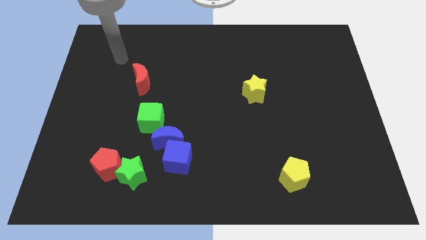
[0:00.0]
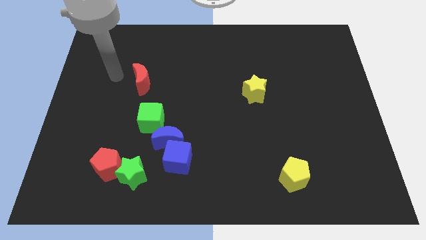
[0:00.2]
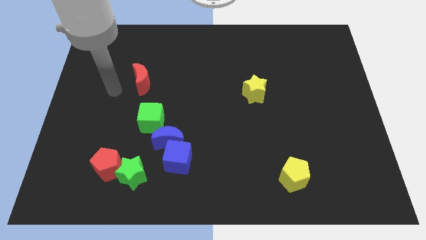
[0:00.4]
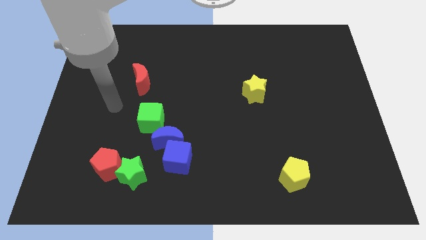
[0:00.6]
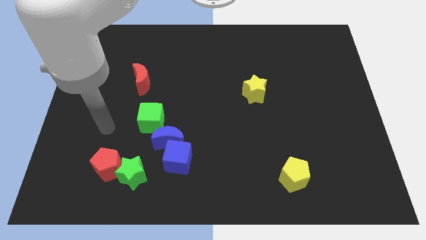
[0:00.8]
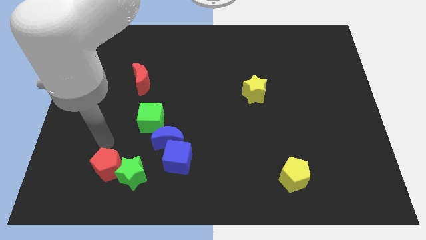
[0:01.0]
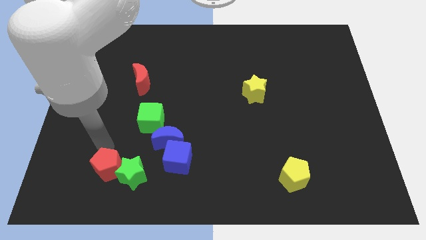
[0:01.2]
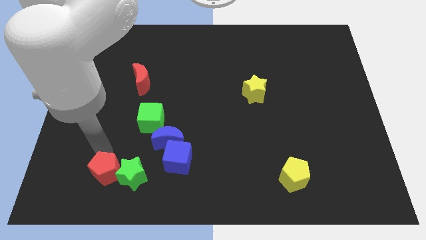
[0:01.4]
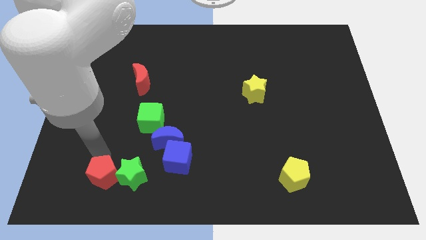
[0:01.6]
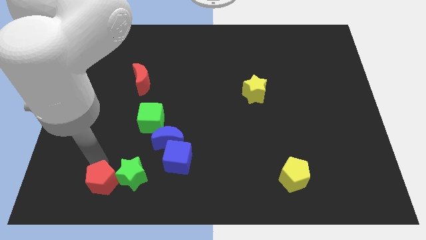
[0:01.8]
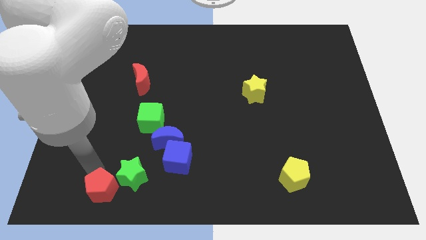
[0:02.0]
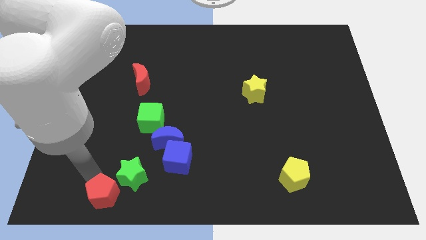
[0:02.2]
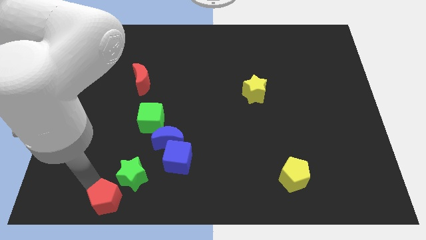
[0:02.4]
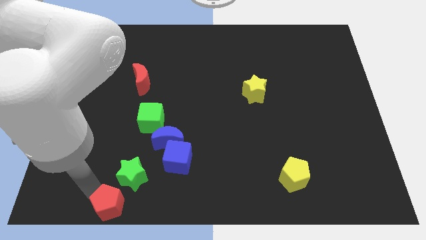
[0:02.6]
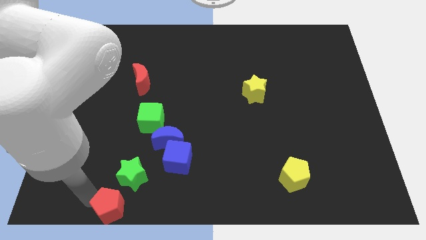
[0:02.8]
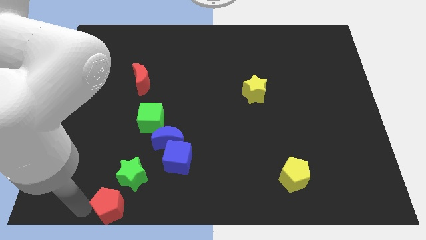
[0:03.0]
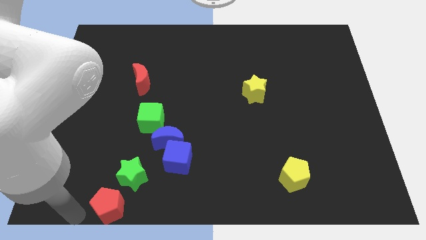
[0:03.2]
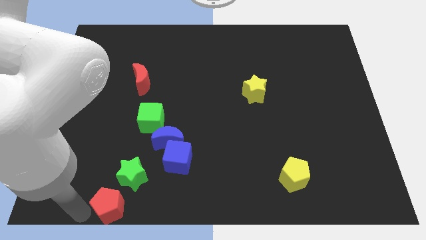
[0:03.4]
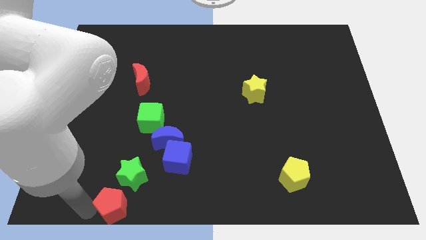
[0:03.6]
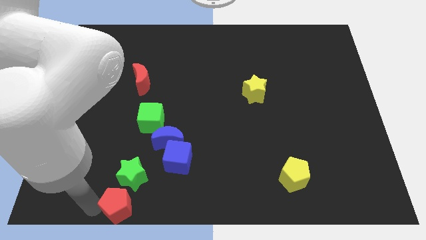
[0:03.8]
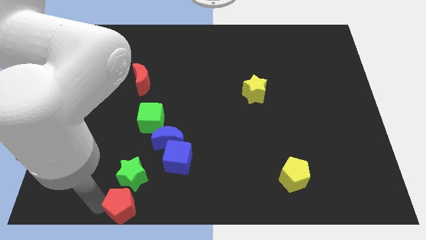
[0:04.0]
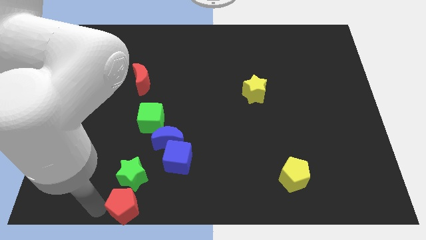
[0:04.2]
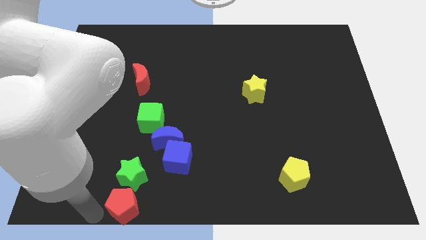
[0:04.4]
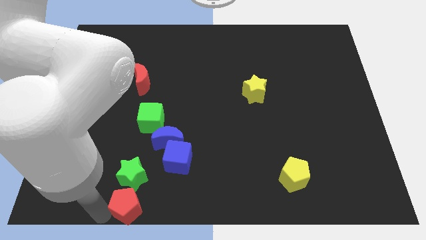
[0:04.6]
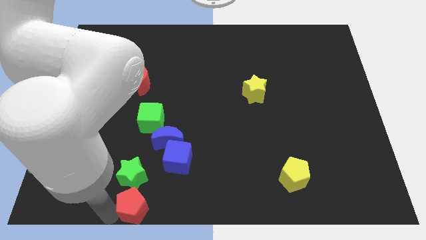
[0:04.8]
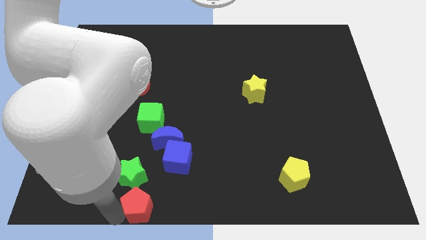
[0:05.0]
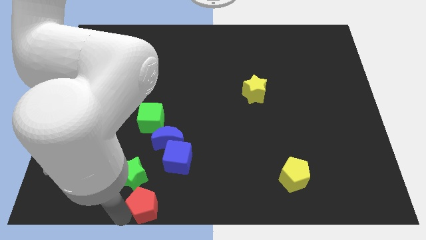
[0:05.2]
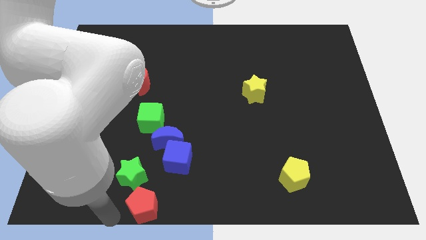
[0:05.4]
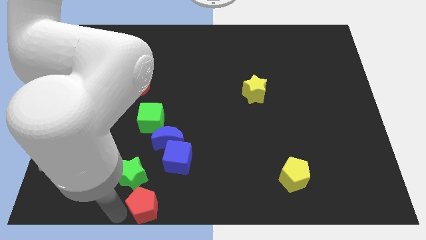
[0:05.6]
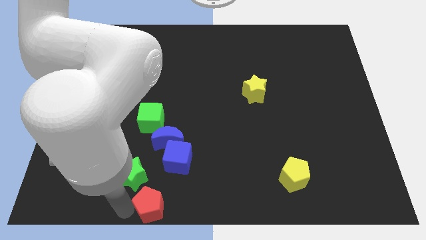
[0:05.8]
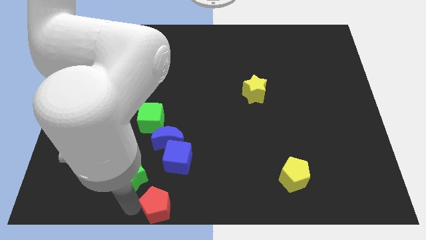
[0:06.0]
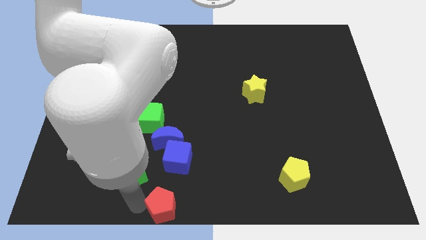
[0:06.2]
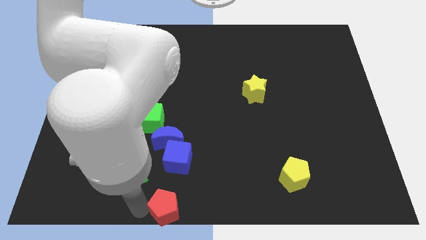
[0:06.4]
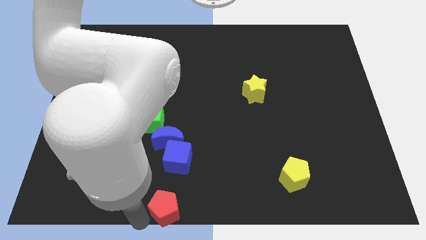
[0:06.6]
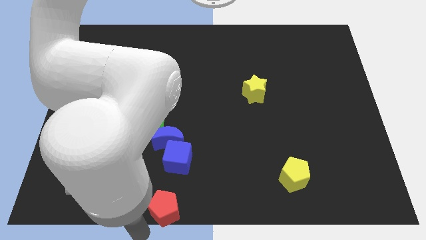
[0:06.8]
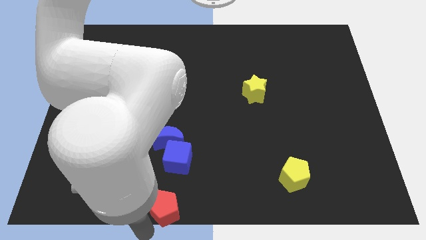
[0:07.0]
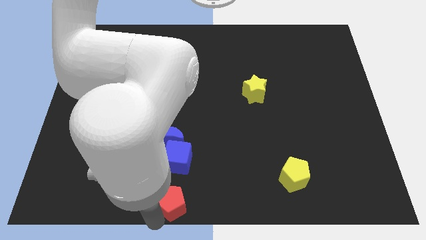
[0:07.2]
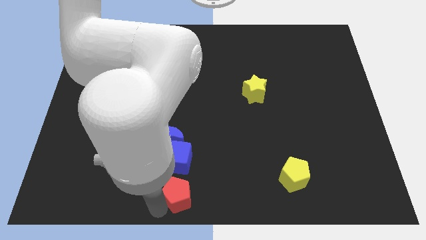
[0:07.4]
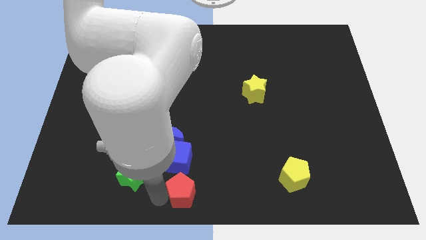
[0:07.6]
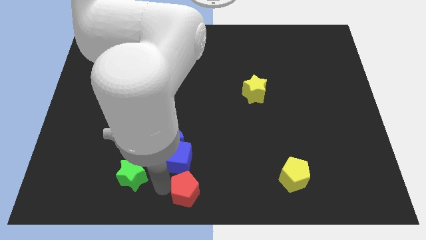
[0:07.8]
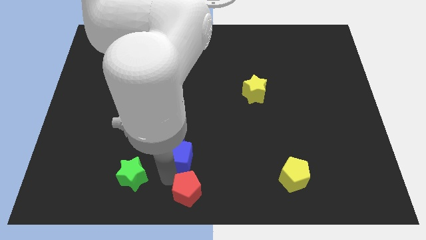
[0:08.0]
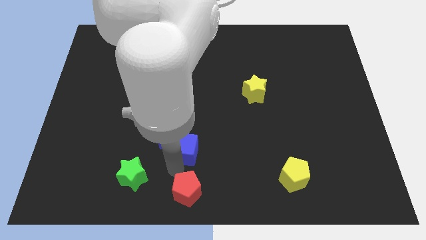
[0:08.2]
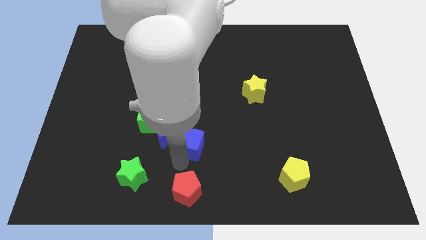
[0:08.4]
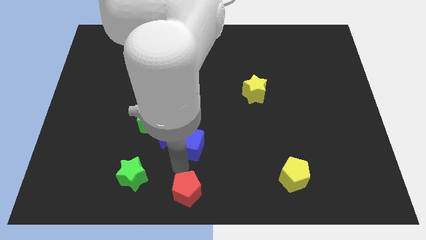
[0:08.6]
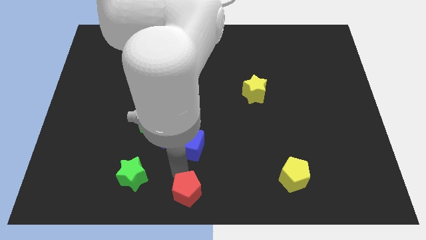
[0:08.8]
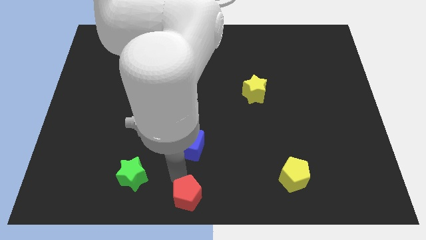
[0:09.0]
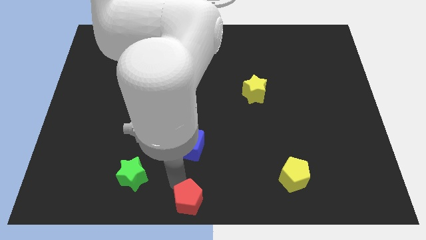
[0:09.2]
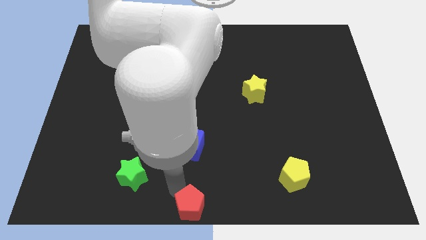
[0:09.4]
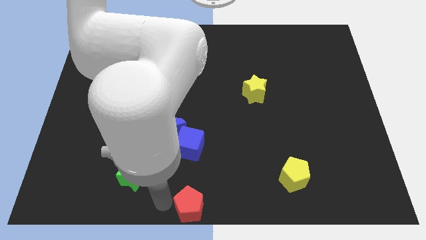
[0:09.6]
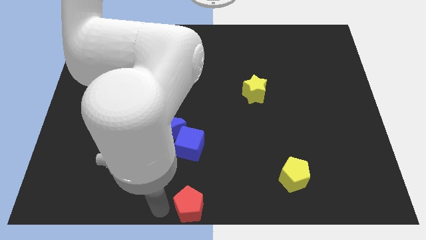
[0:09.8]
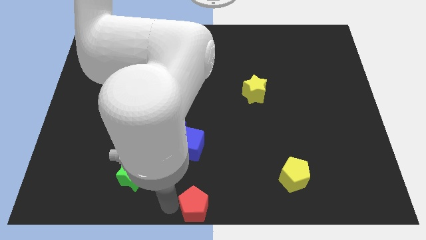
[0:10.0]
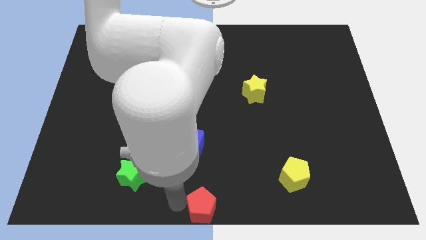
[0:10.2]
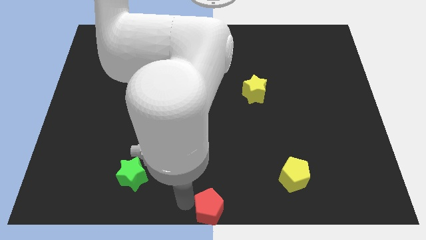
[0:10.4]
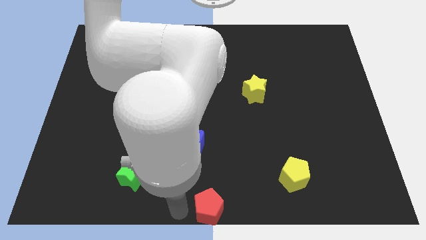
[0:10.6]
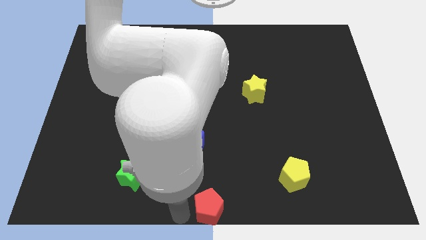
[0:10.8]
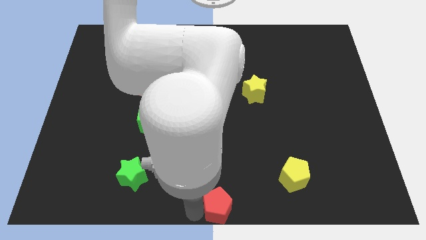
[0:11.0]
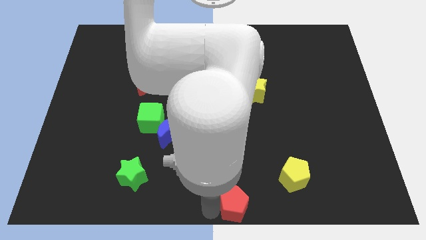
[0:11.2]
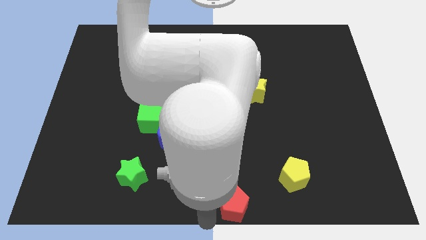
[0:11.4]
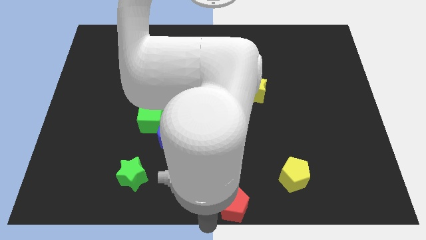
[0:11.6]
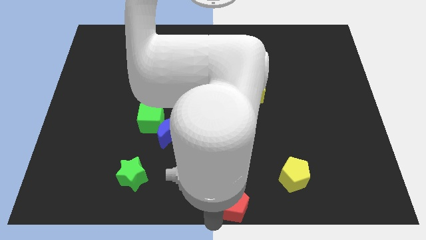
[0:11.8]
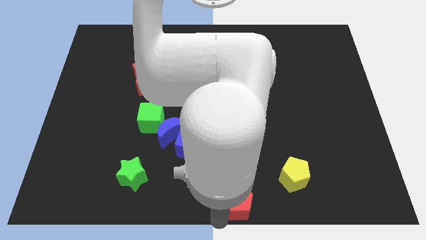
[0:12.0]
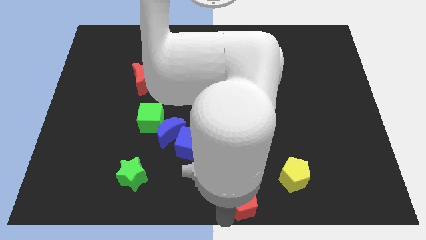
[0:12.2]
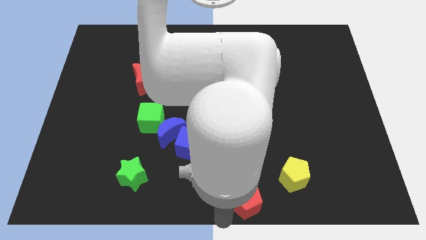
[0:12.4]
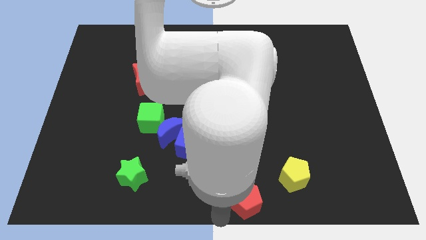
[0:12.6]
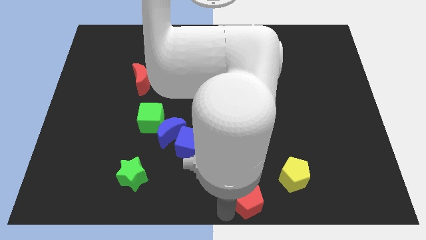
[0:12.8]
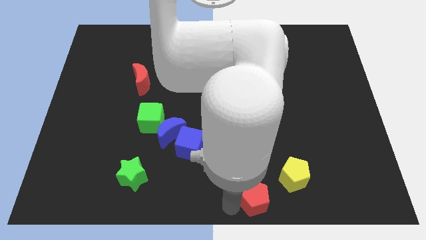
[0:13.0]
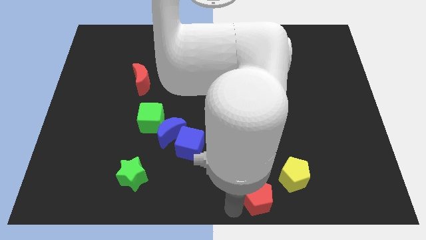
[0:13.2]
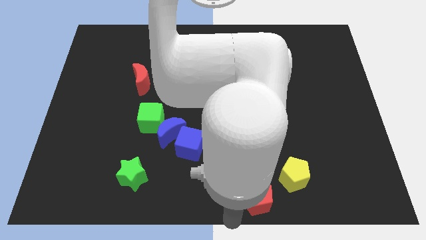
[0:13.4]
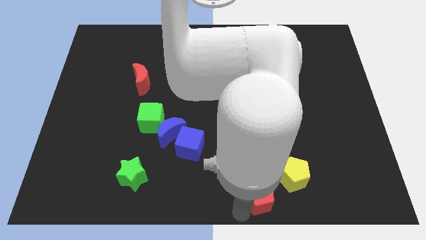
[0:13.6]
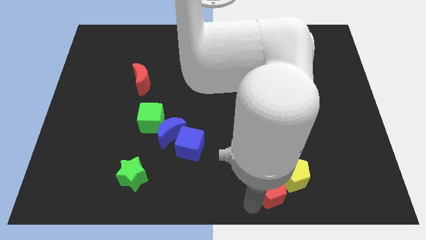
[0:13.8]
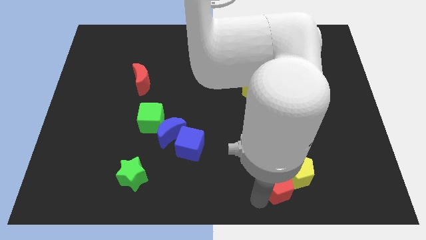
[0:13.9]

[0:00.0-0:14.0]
put the red pentagon next to the yellow pentagon
